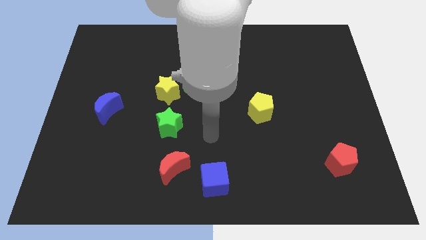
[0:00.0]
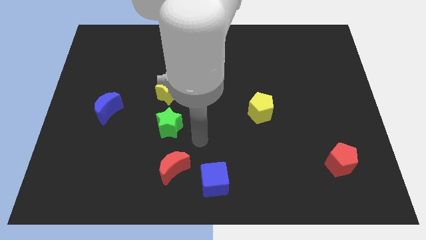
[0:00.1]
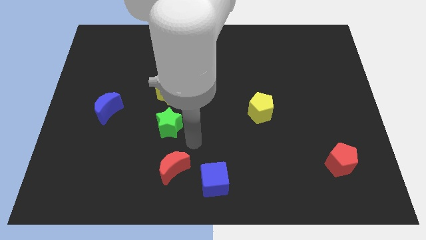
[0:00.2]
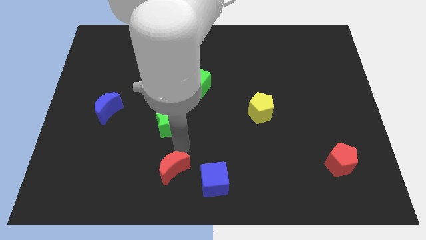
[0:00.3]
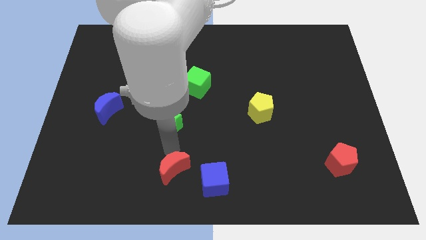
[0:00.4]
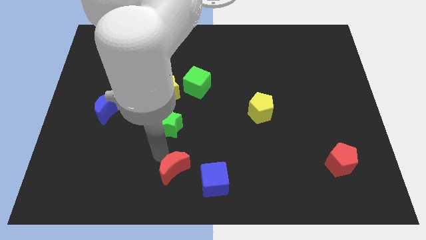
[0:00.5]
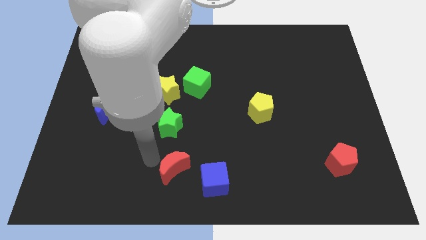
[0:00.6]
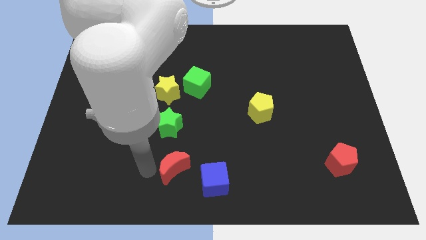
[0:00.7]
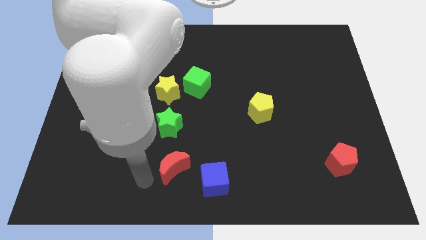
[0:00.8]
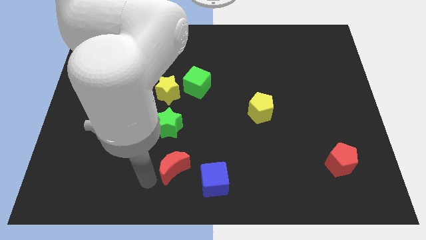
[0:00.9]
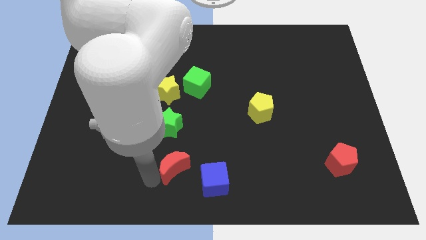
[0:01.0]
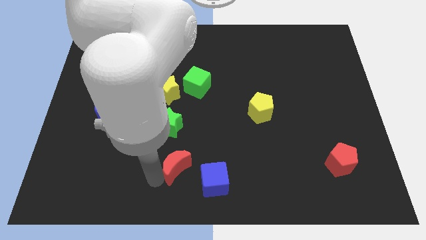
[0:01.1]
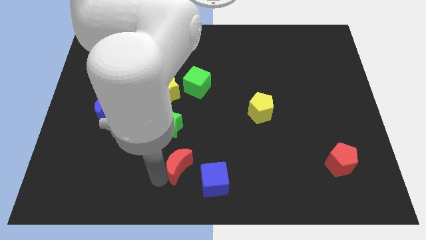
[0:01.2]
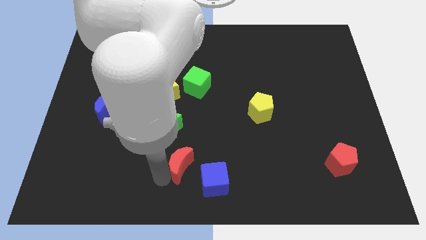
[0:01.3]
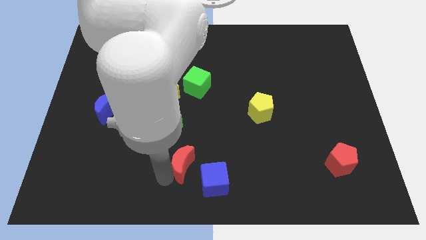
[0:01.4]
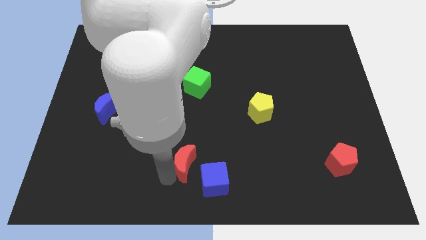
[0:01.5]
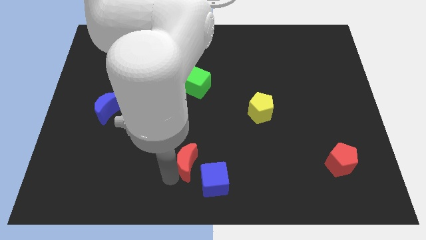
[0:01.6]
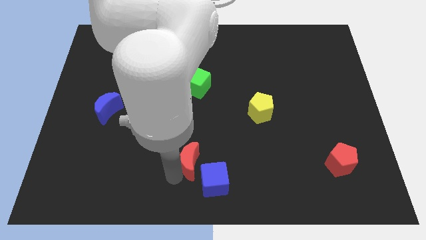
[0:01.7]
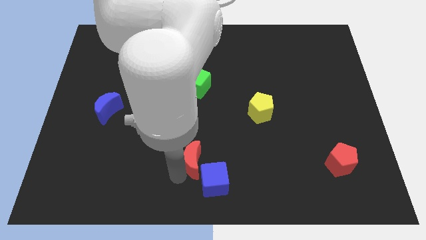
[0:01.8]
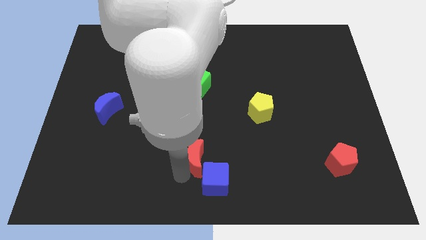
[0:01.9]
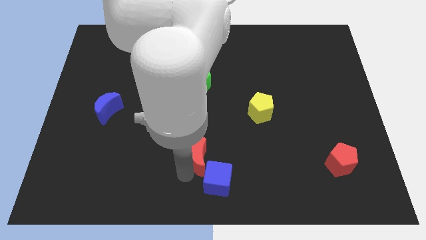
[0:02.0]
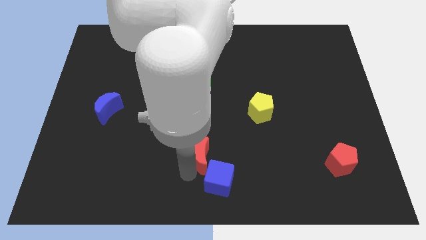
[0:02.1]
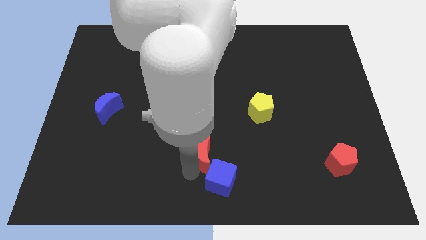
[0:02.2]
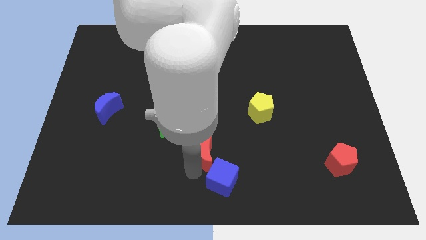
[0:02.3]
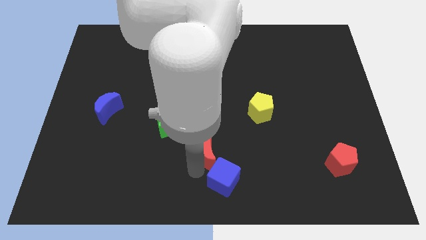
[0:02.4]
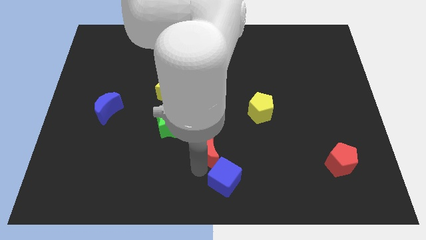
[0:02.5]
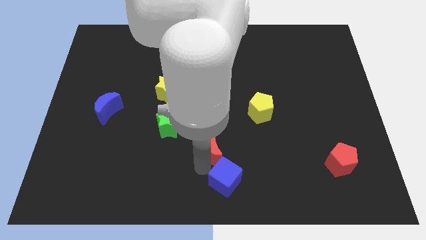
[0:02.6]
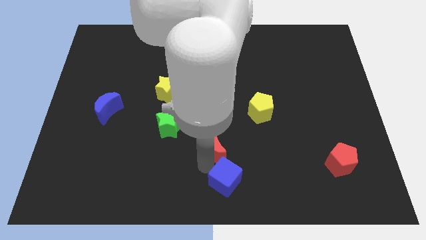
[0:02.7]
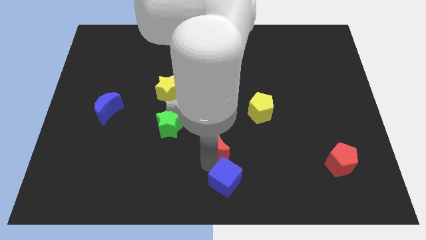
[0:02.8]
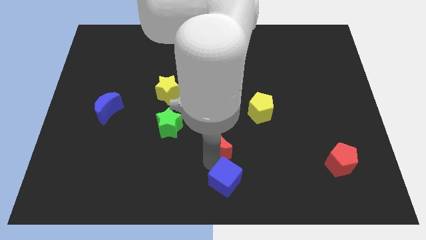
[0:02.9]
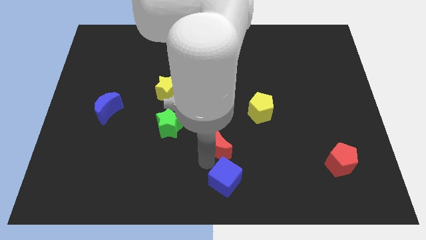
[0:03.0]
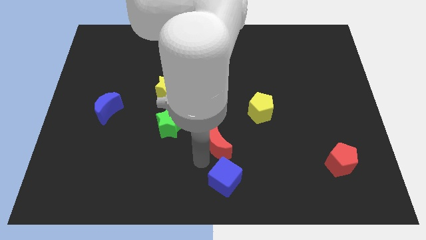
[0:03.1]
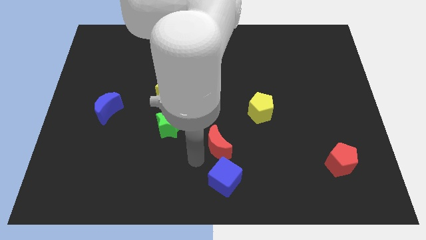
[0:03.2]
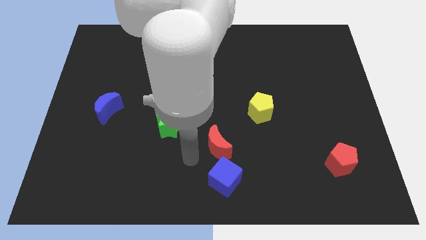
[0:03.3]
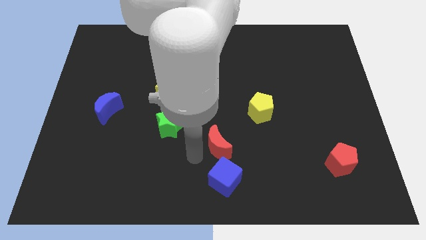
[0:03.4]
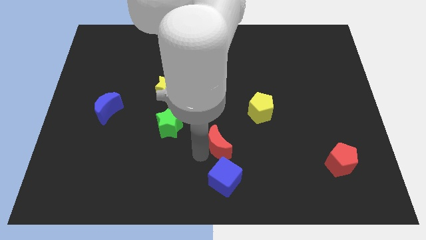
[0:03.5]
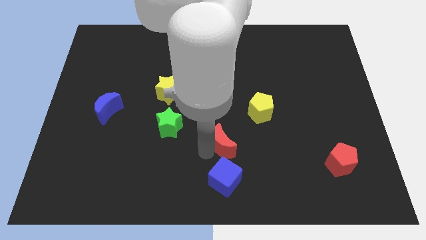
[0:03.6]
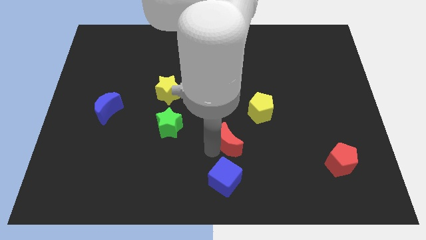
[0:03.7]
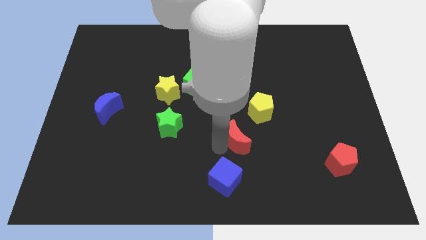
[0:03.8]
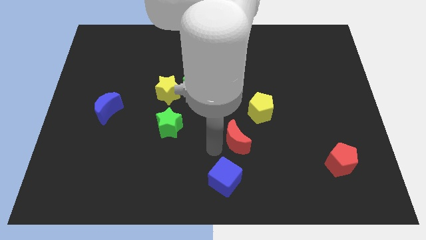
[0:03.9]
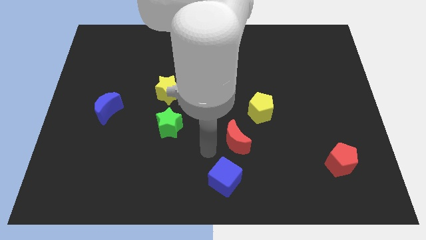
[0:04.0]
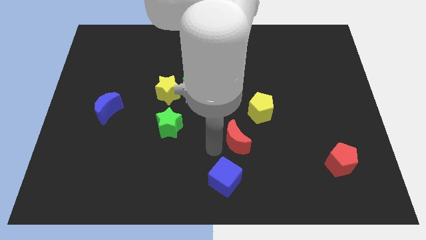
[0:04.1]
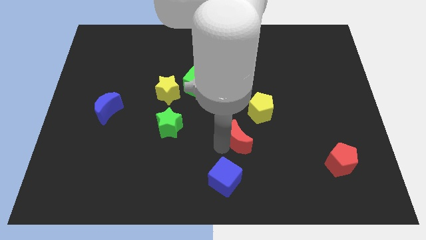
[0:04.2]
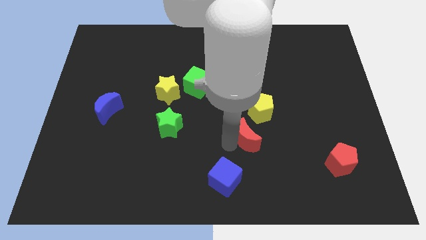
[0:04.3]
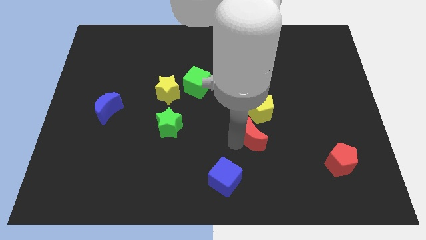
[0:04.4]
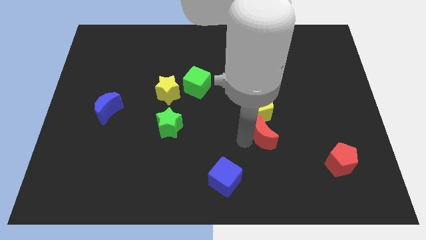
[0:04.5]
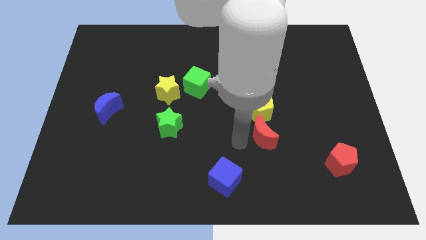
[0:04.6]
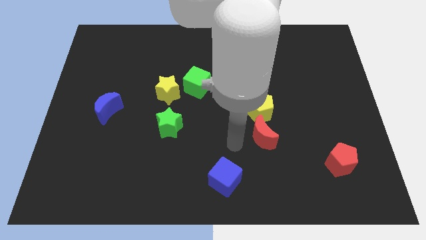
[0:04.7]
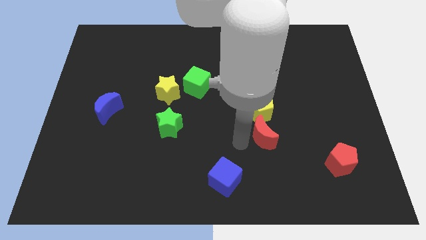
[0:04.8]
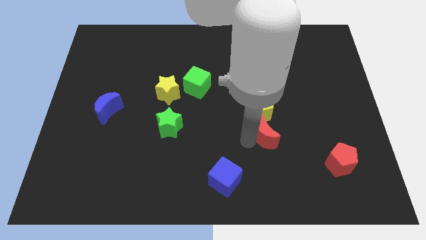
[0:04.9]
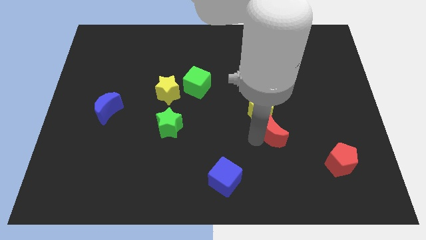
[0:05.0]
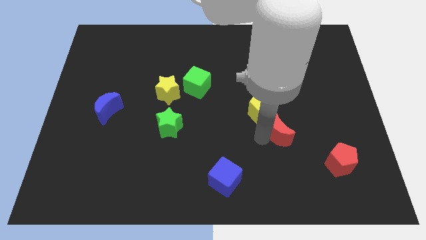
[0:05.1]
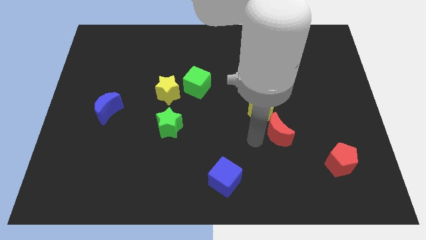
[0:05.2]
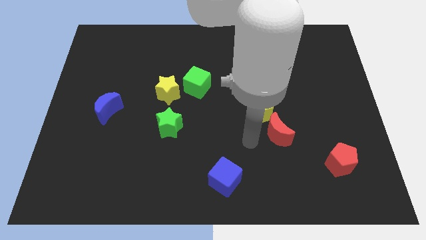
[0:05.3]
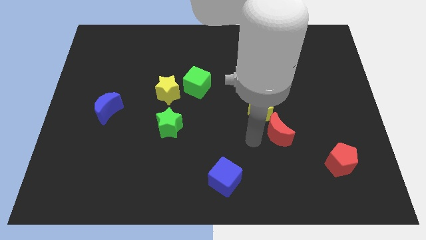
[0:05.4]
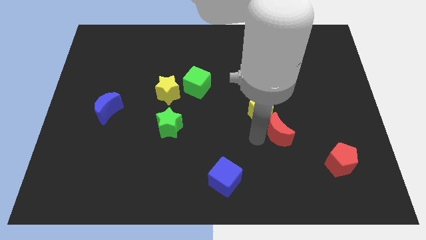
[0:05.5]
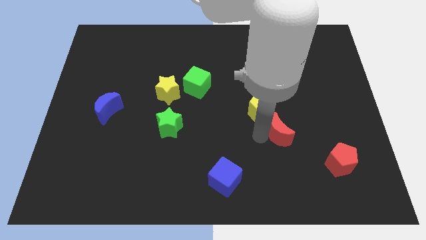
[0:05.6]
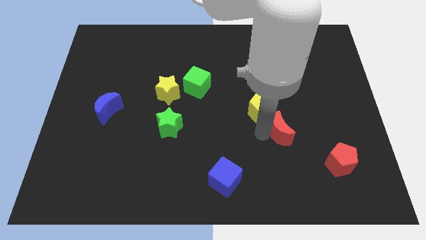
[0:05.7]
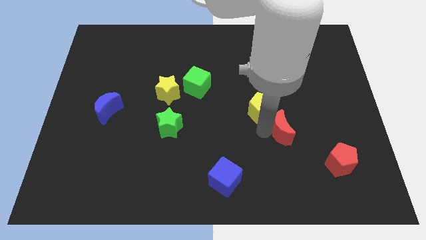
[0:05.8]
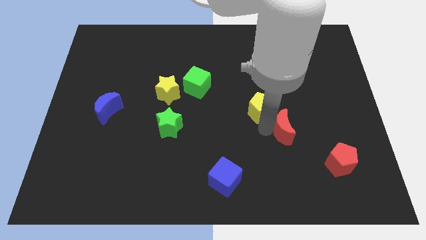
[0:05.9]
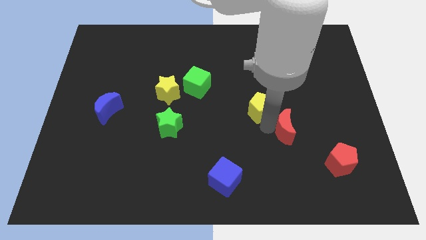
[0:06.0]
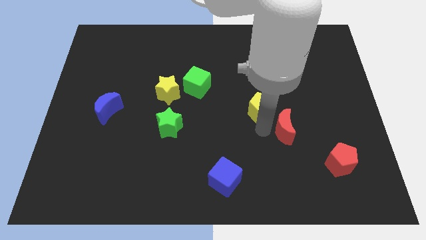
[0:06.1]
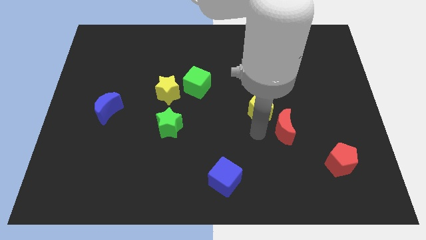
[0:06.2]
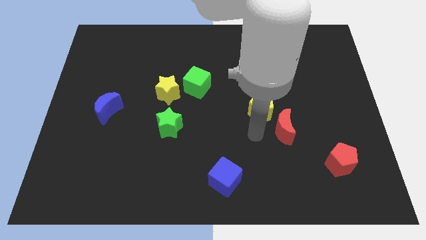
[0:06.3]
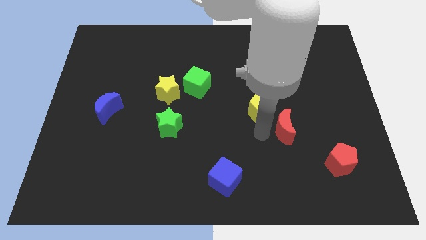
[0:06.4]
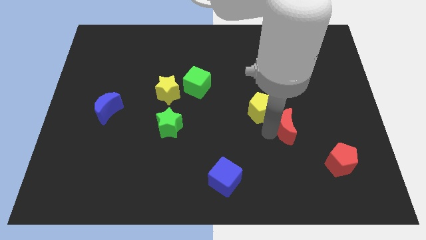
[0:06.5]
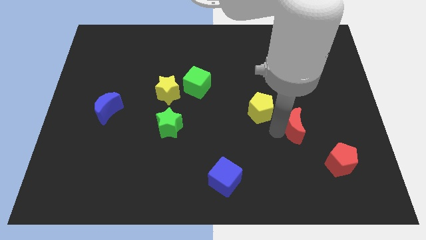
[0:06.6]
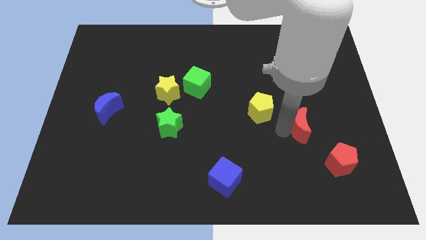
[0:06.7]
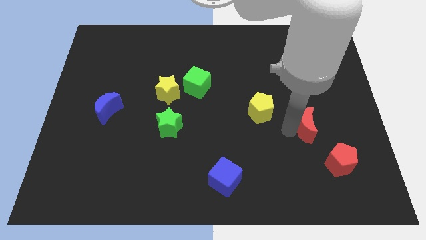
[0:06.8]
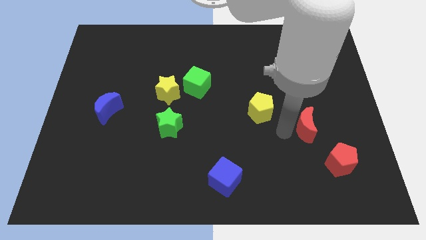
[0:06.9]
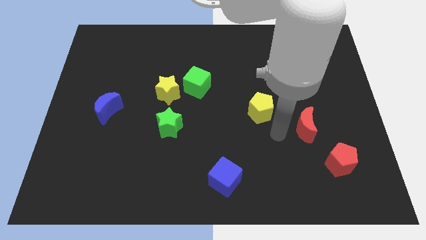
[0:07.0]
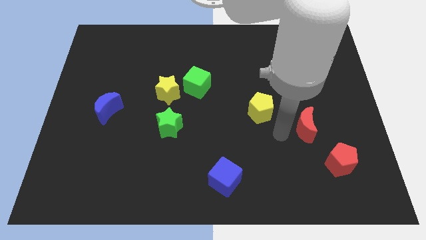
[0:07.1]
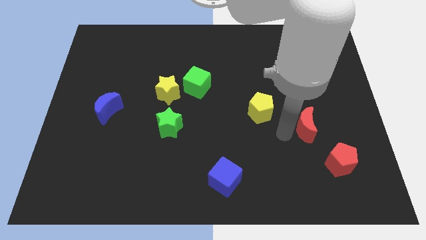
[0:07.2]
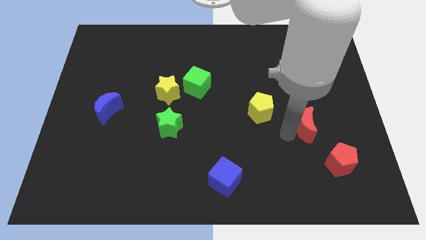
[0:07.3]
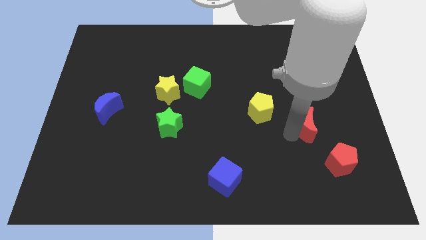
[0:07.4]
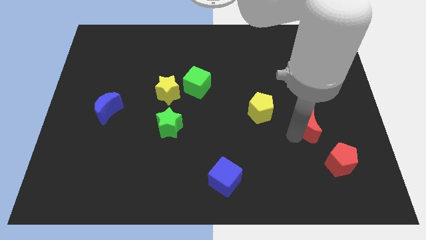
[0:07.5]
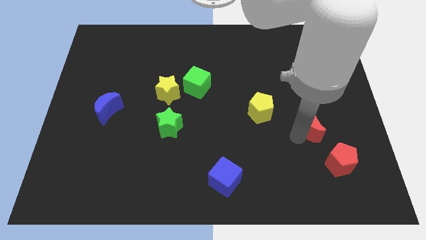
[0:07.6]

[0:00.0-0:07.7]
put the red moon to the top of the red pentagon
